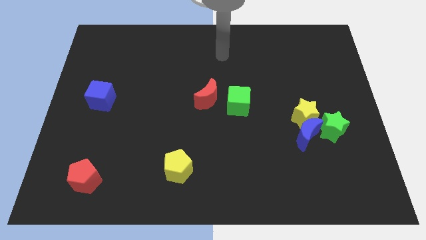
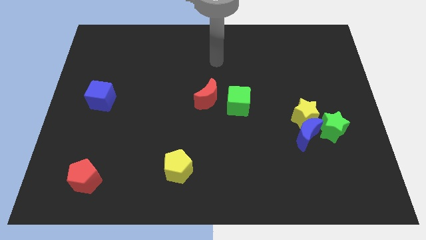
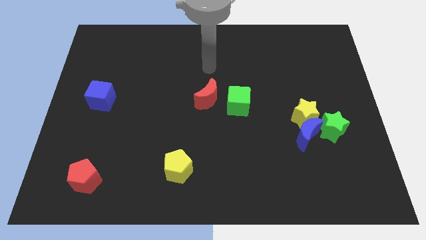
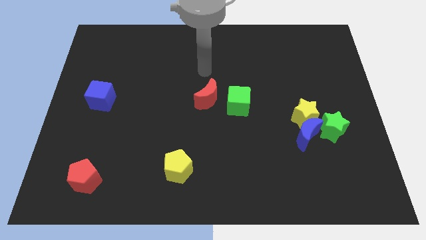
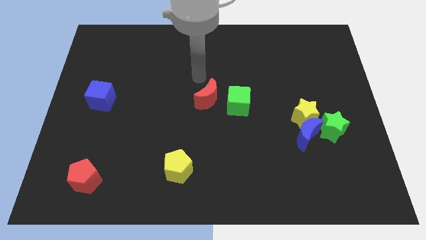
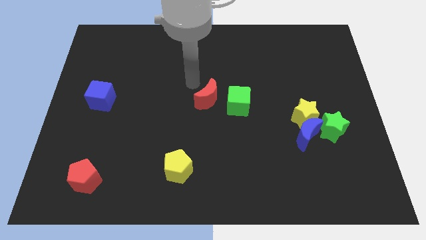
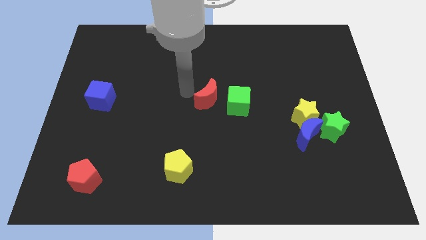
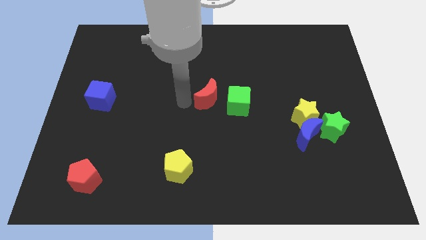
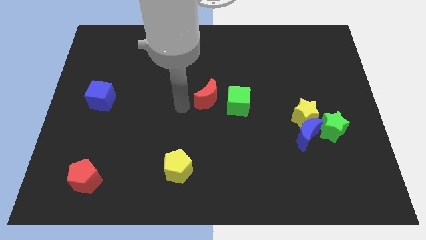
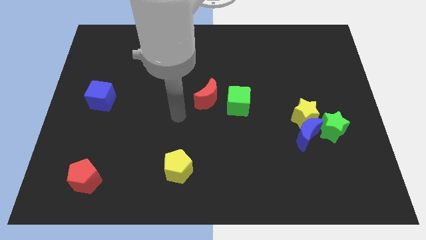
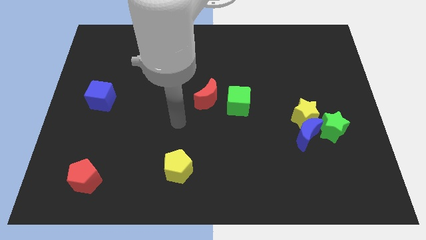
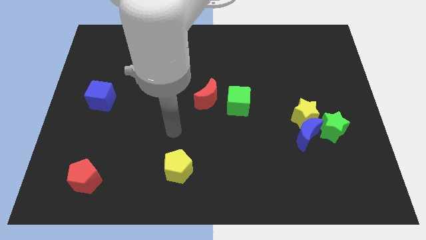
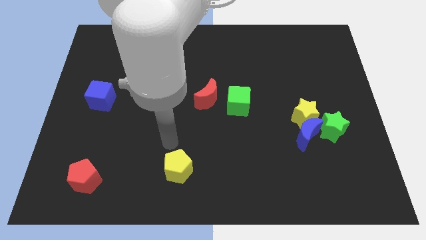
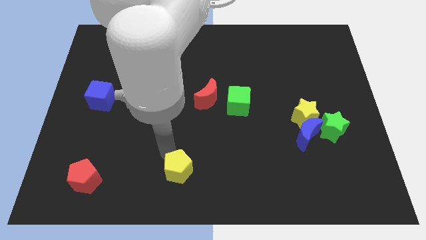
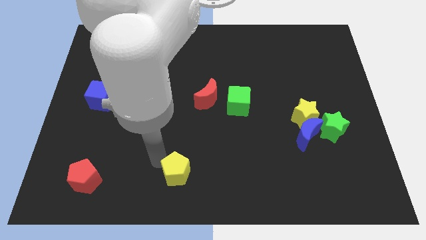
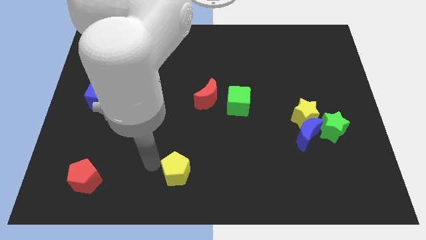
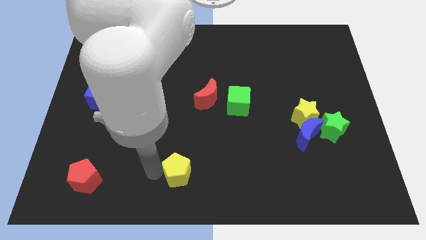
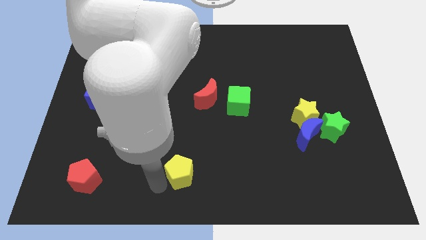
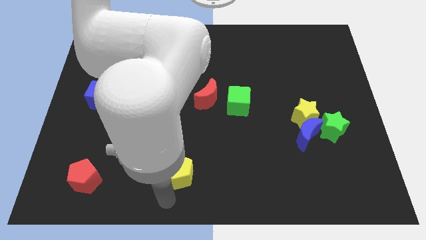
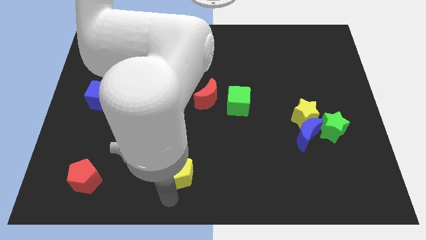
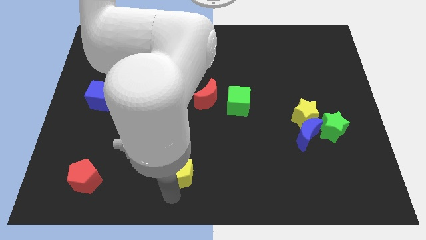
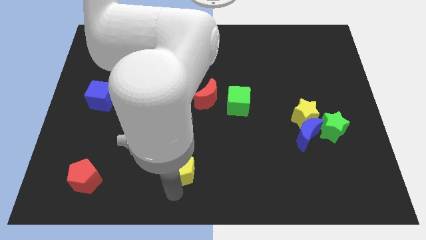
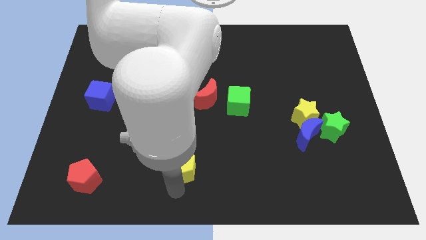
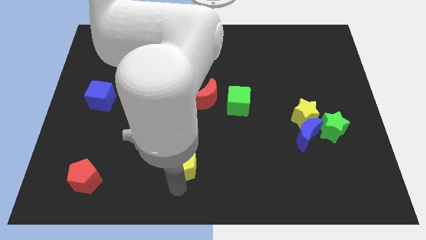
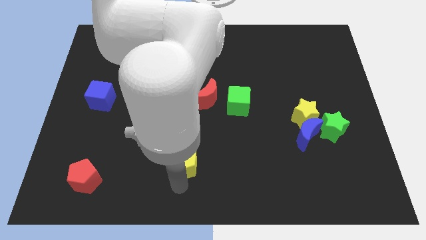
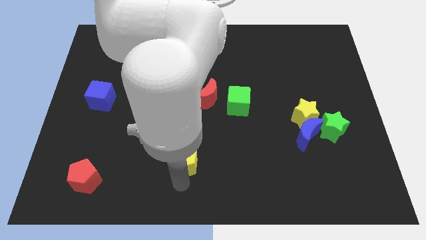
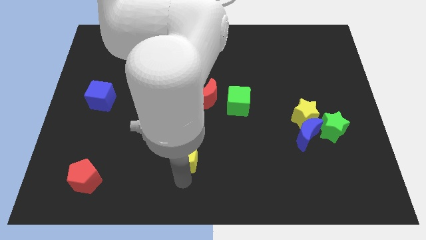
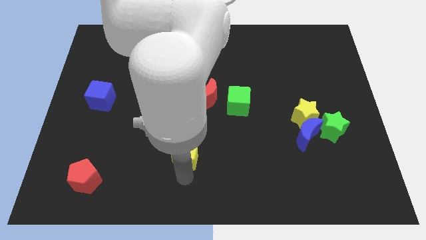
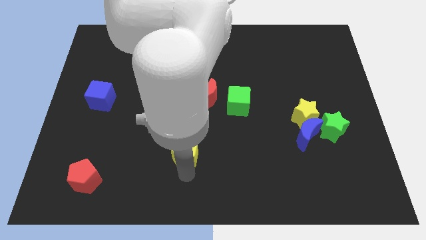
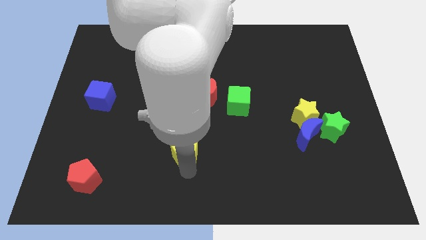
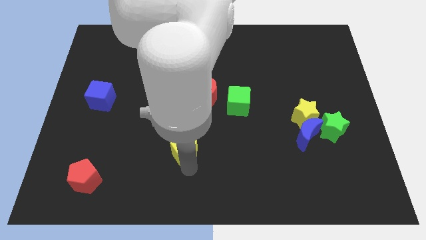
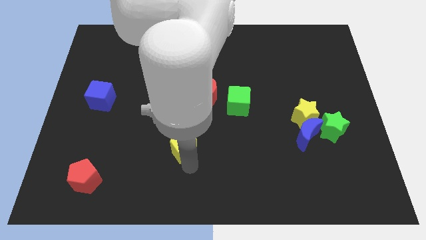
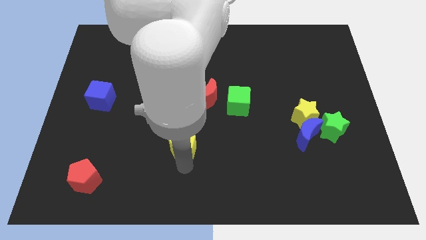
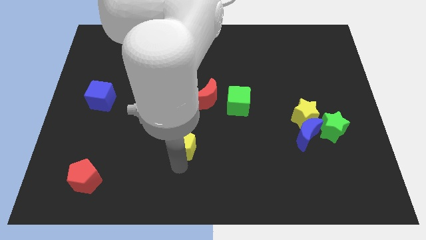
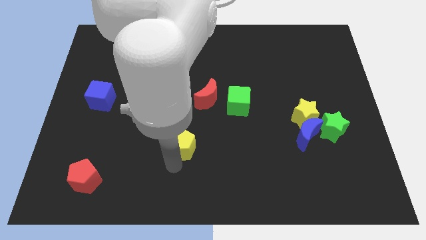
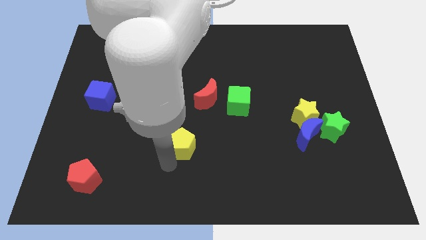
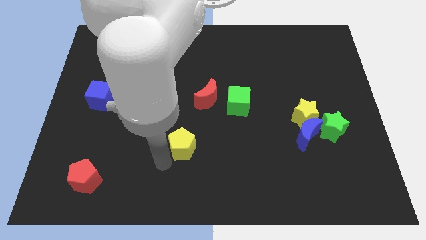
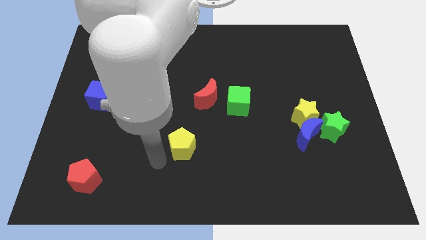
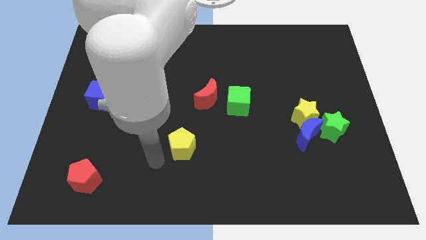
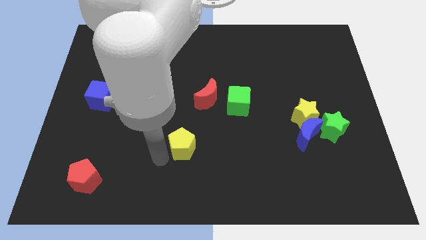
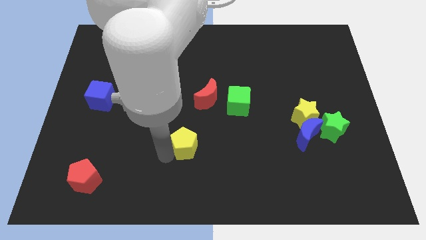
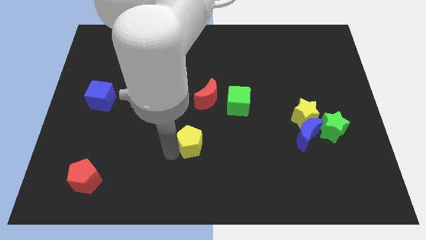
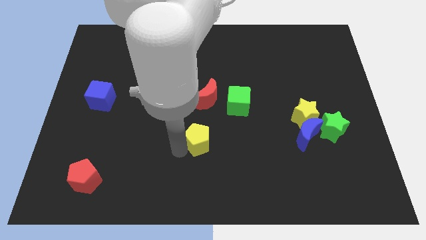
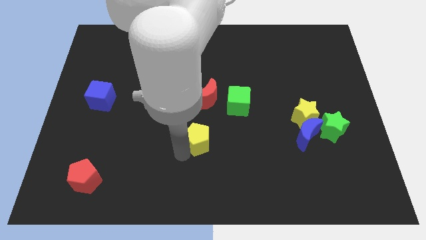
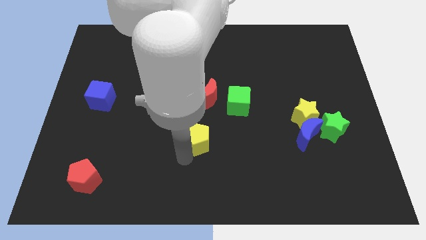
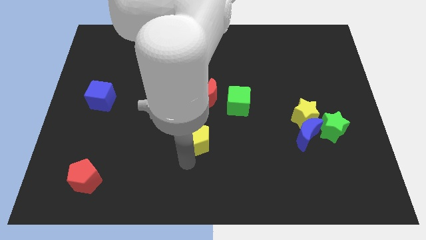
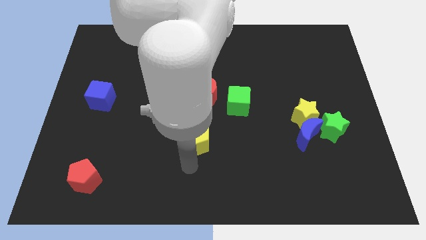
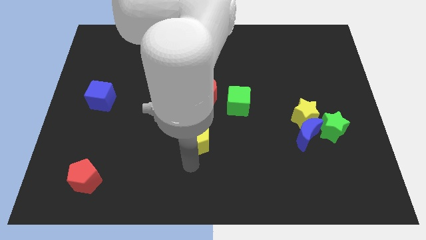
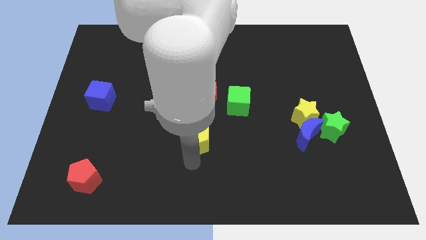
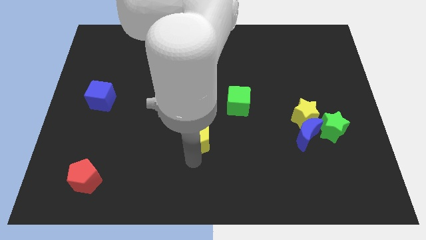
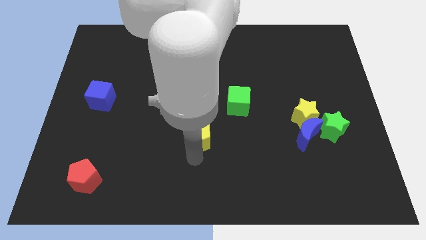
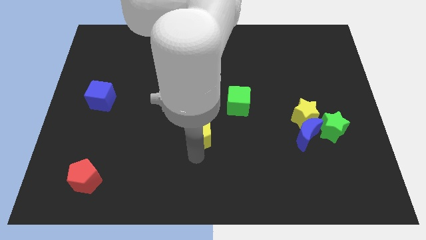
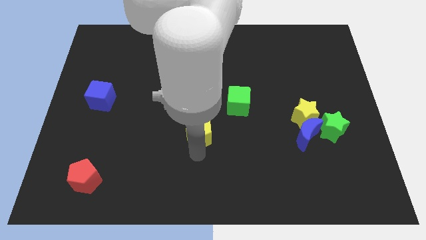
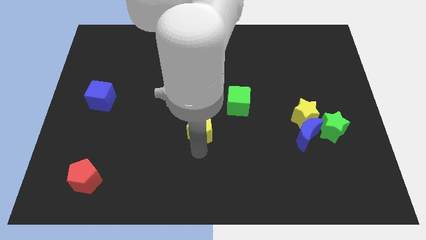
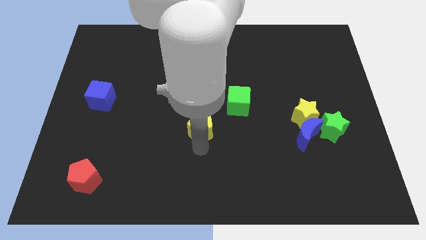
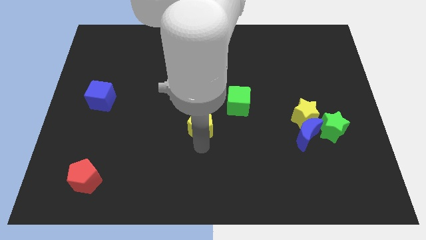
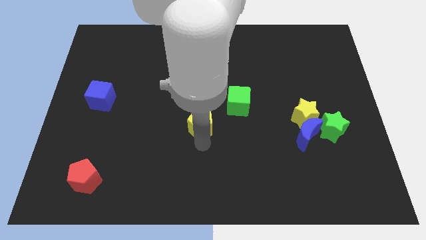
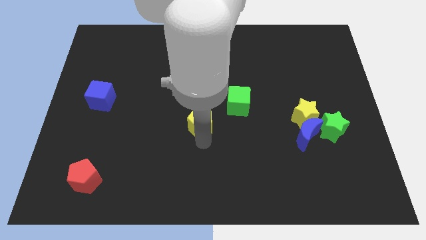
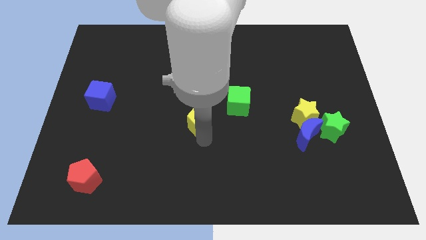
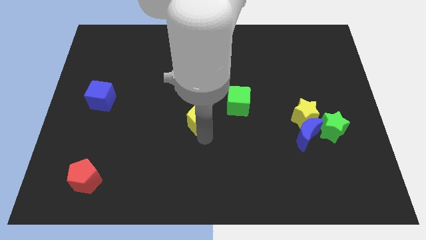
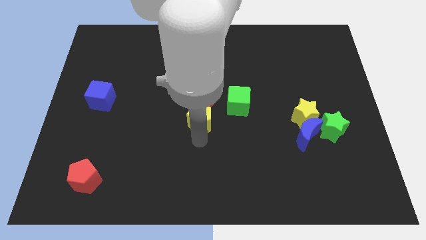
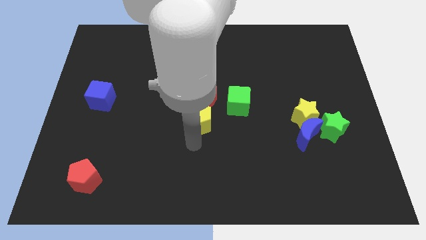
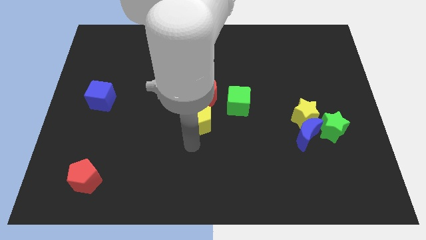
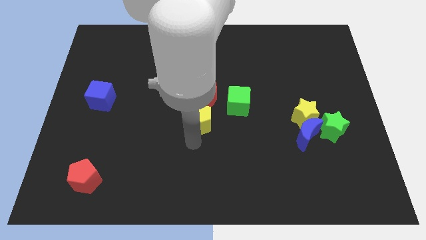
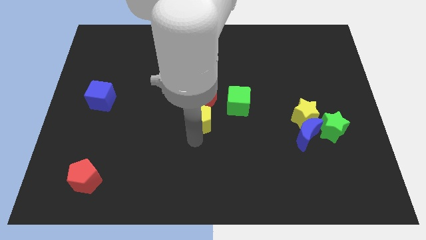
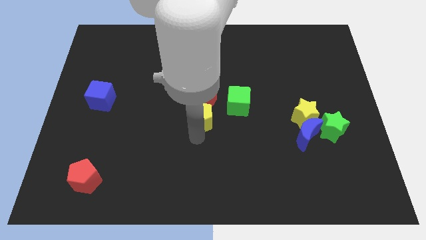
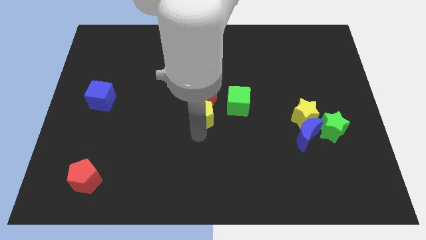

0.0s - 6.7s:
put the yellow pentagon towards the red moon

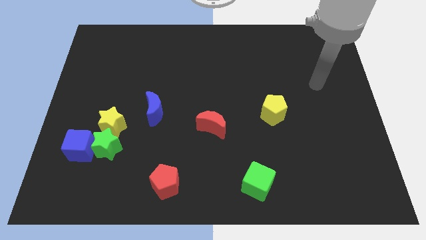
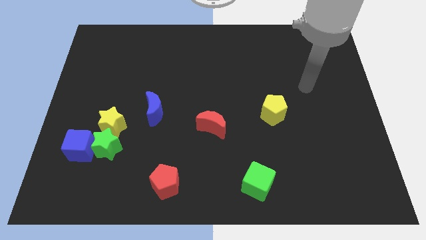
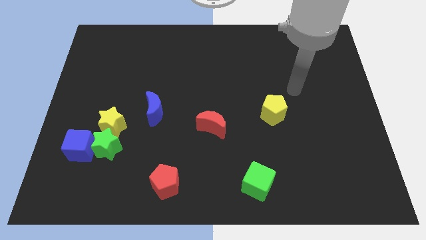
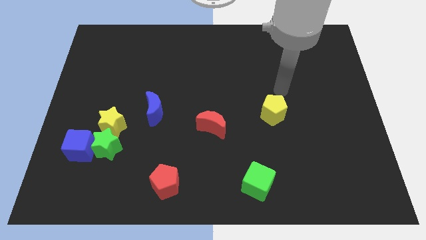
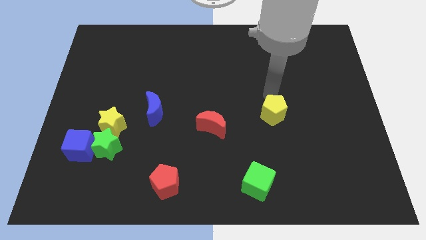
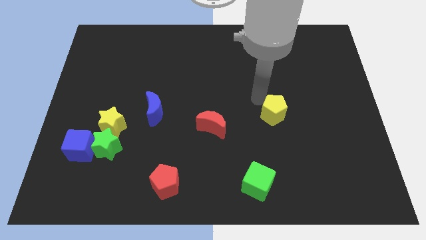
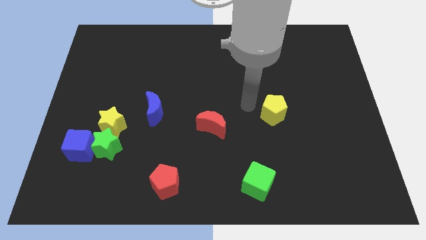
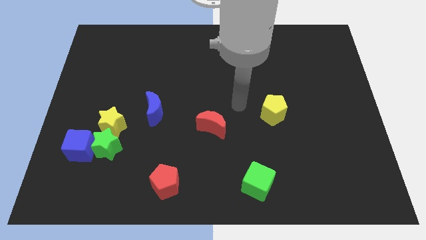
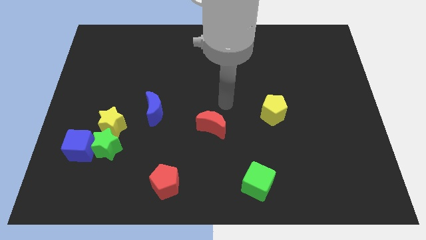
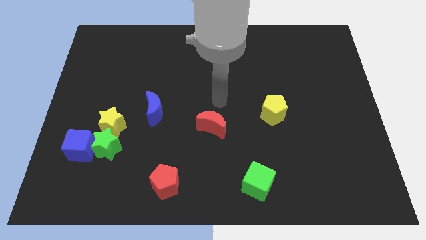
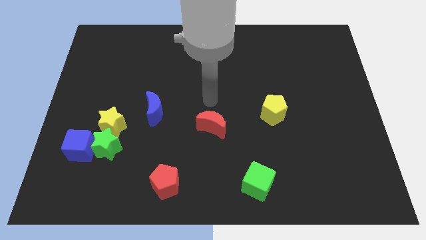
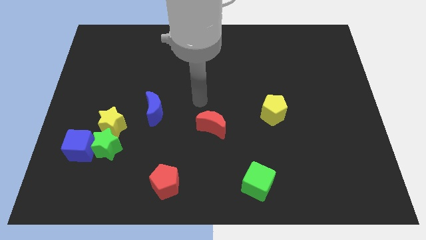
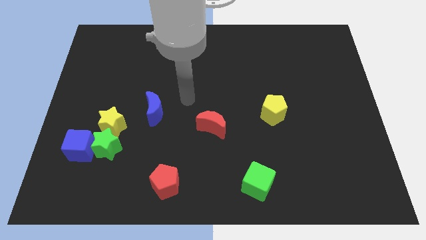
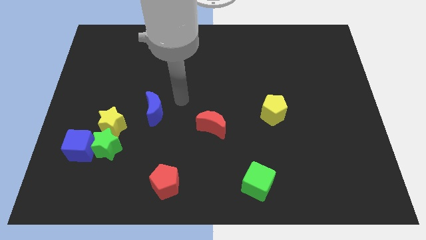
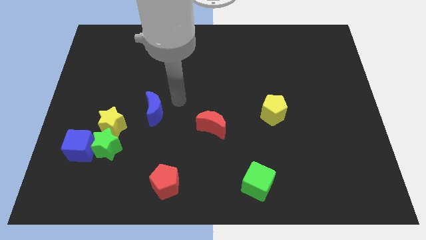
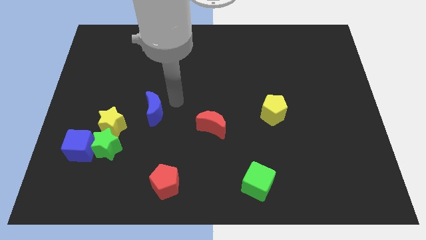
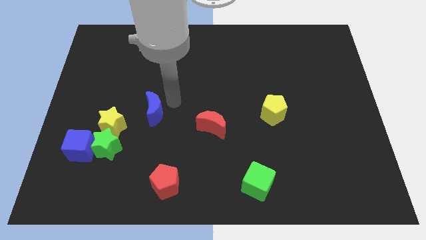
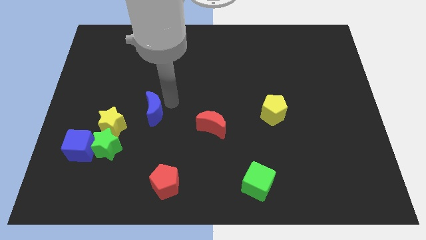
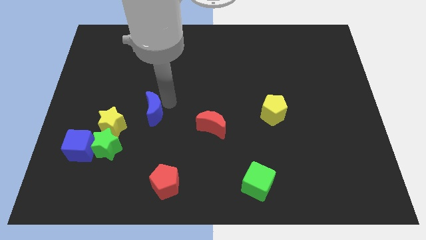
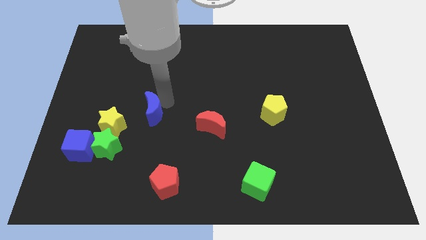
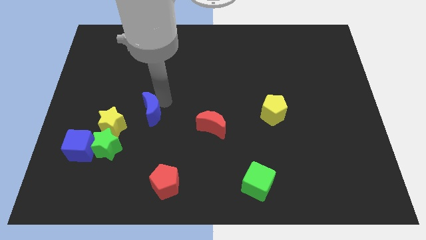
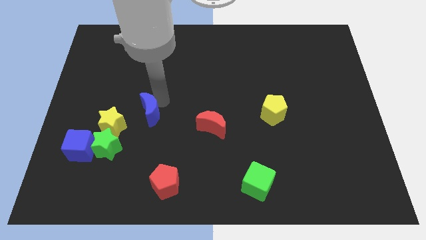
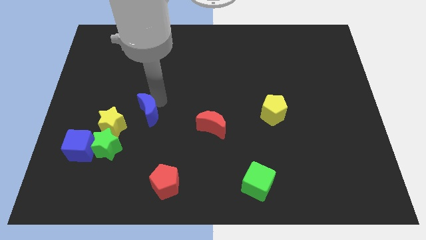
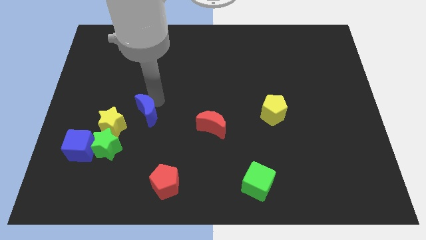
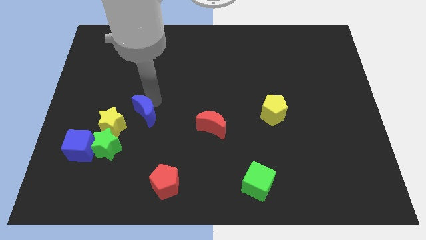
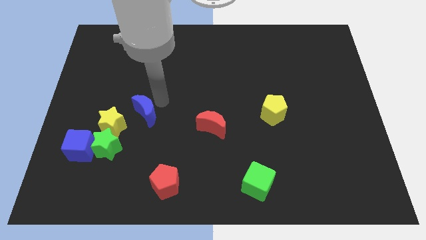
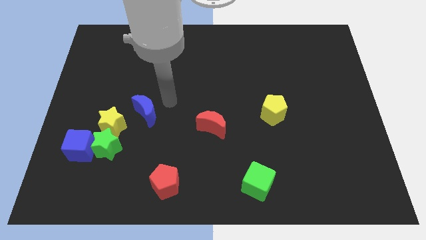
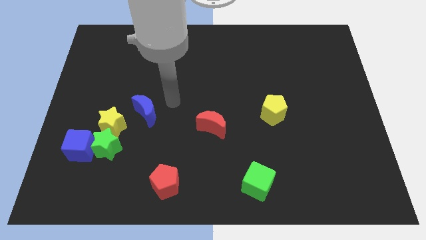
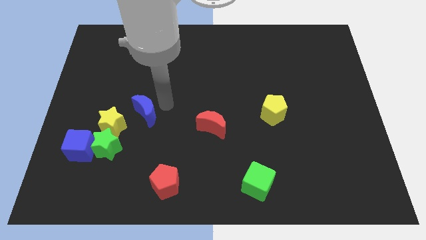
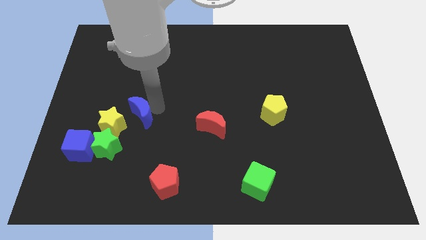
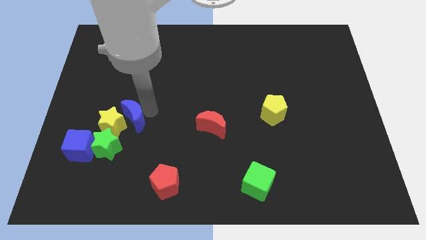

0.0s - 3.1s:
push the blue moon towards the yellow star
